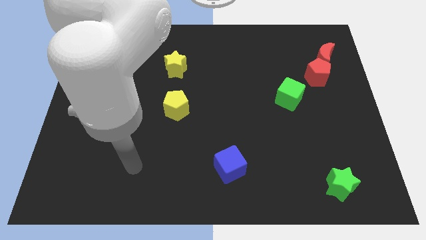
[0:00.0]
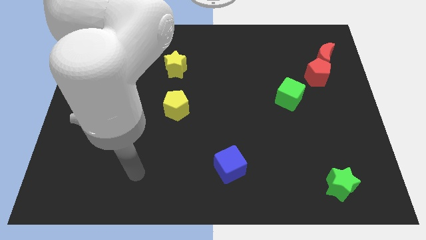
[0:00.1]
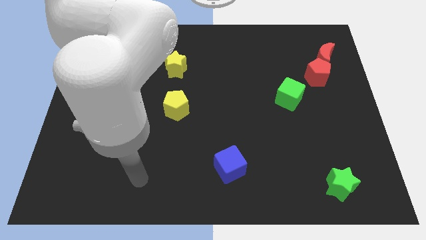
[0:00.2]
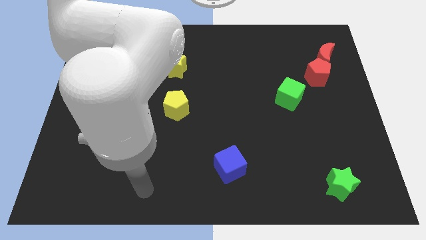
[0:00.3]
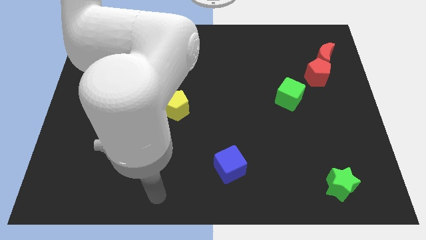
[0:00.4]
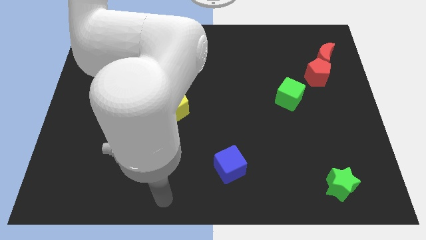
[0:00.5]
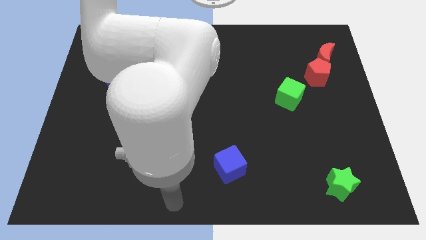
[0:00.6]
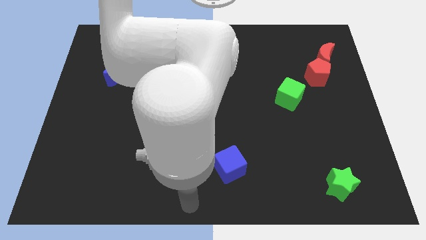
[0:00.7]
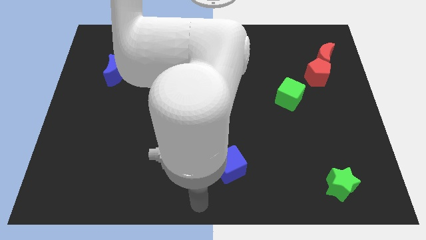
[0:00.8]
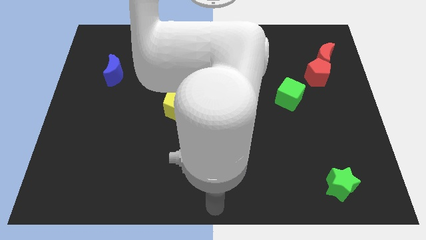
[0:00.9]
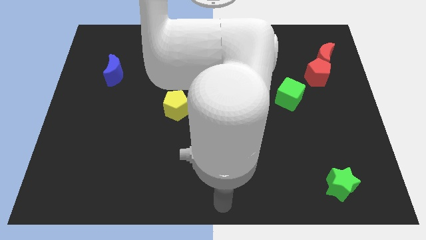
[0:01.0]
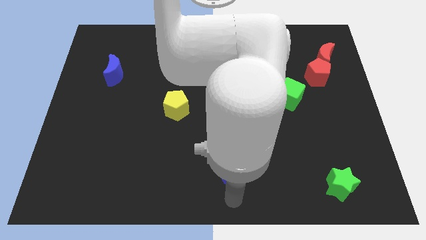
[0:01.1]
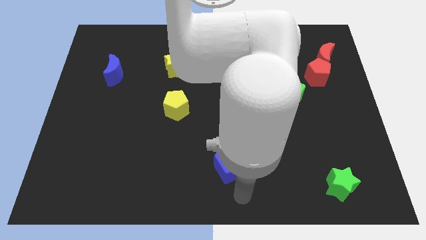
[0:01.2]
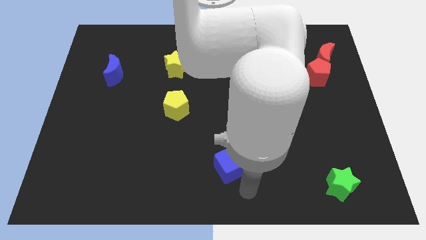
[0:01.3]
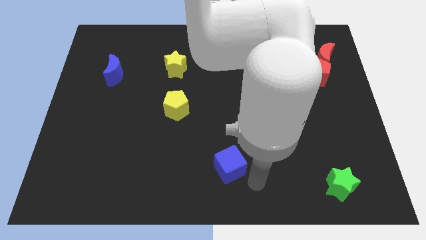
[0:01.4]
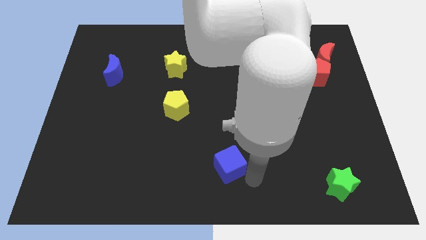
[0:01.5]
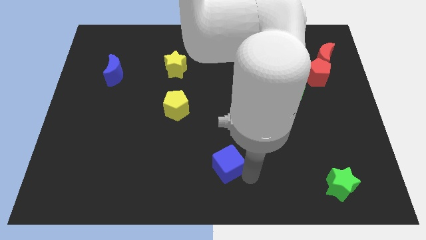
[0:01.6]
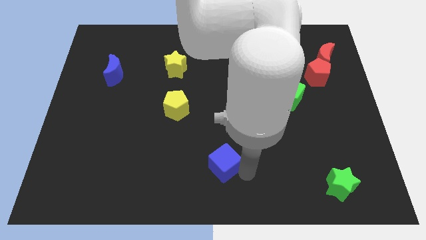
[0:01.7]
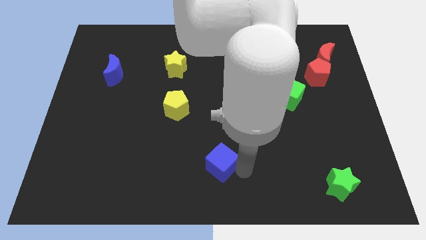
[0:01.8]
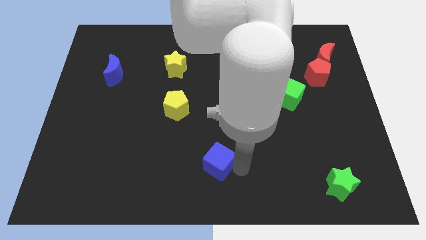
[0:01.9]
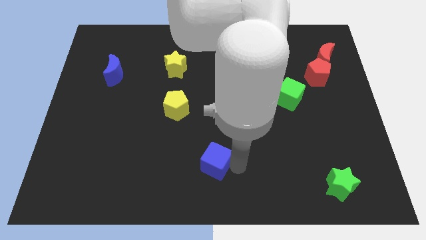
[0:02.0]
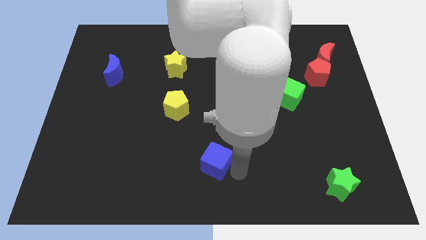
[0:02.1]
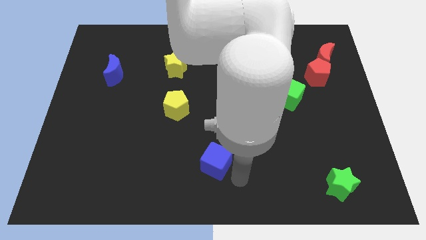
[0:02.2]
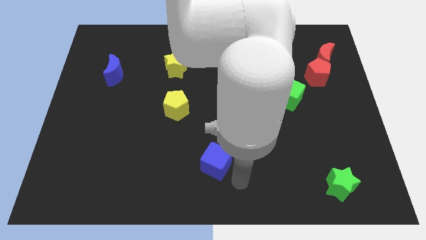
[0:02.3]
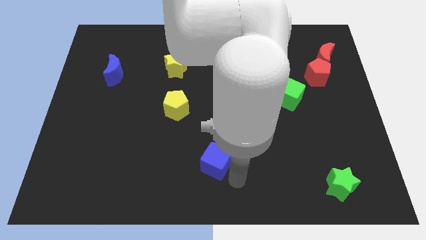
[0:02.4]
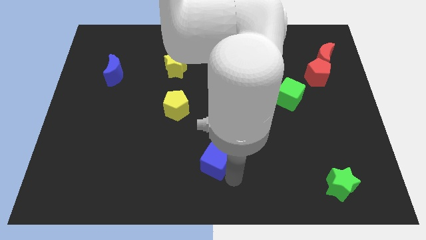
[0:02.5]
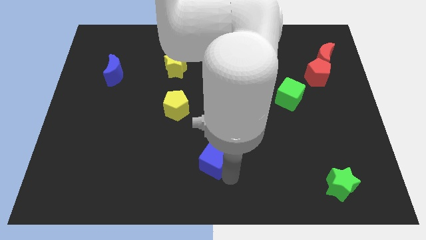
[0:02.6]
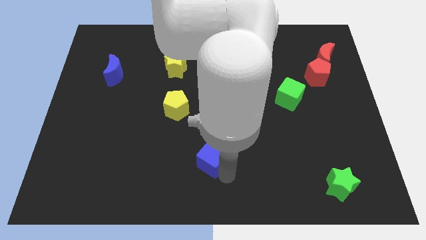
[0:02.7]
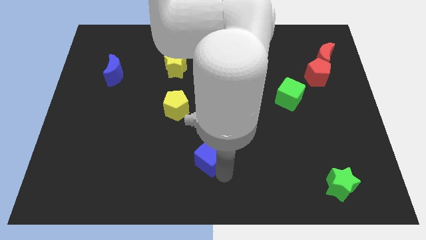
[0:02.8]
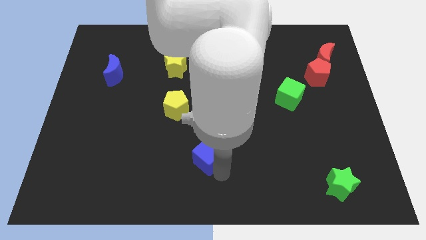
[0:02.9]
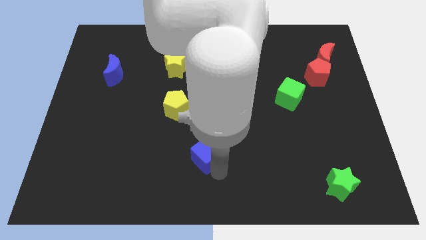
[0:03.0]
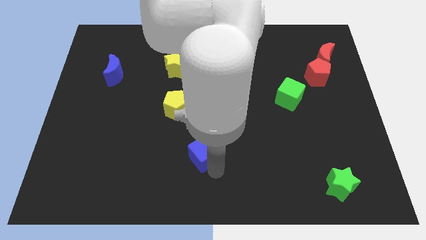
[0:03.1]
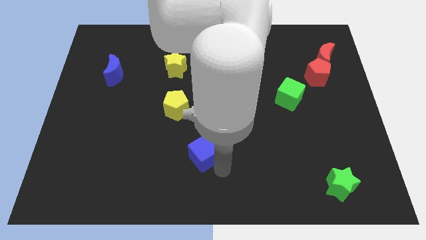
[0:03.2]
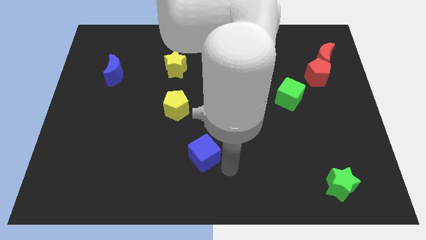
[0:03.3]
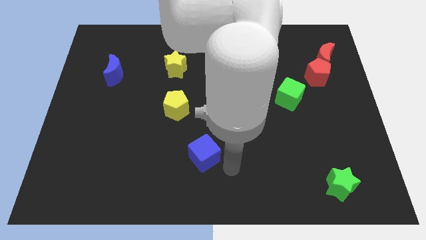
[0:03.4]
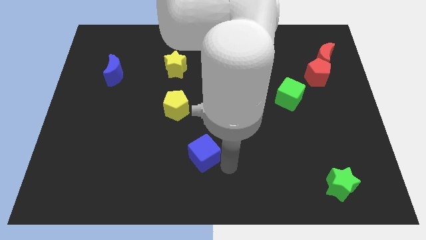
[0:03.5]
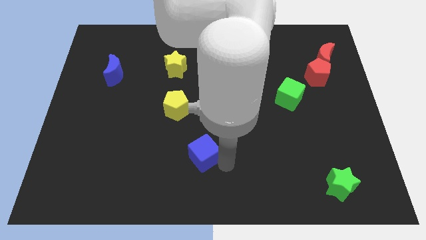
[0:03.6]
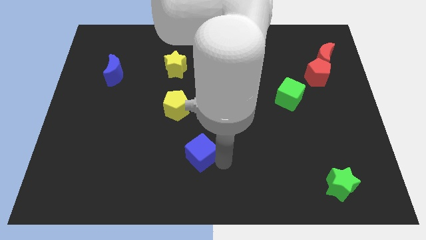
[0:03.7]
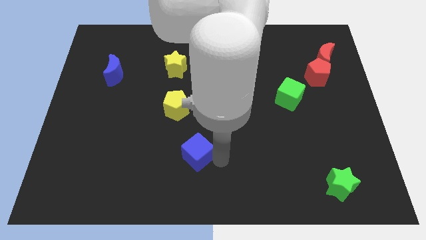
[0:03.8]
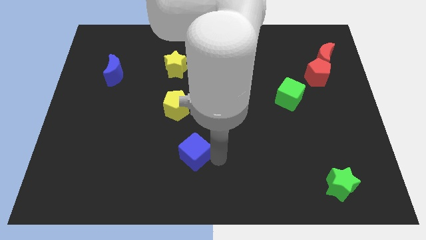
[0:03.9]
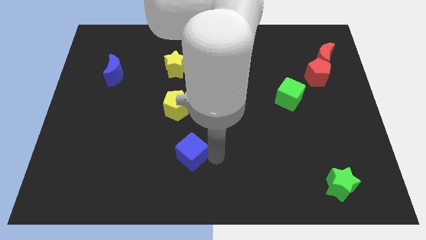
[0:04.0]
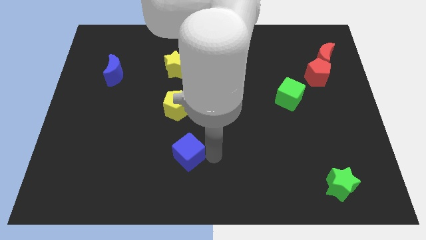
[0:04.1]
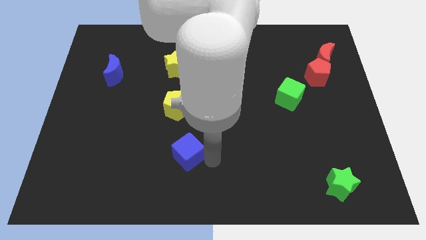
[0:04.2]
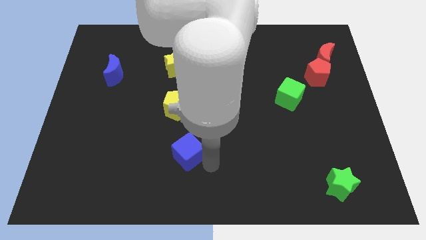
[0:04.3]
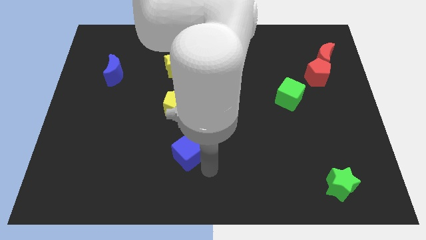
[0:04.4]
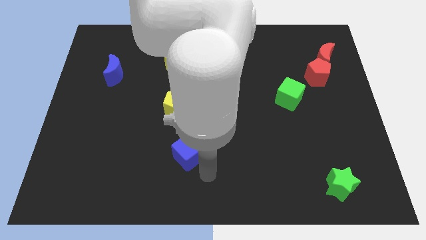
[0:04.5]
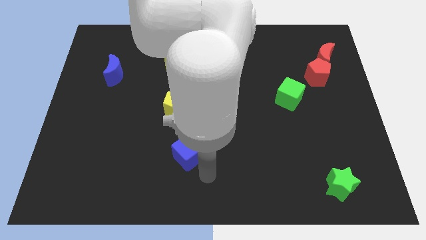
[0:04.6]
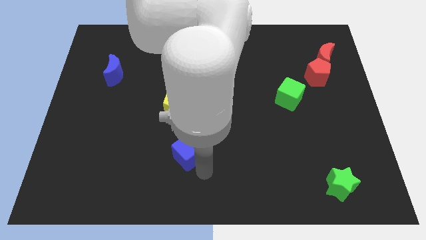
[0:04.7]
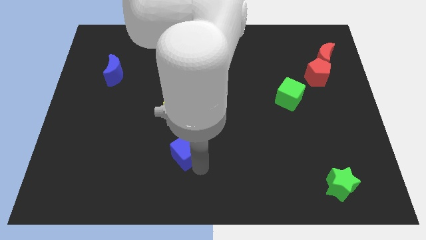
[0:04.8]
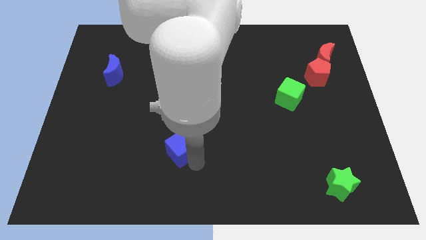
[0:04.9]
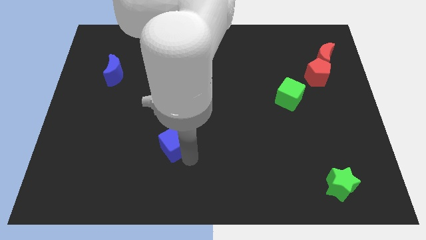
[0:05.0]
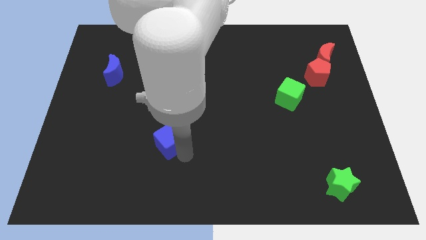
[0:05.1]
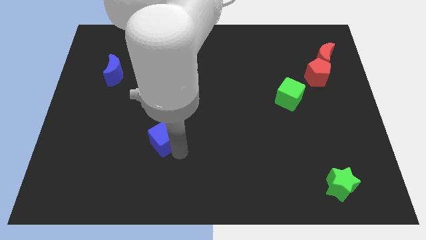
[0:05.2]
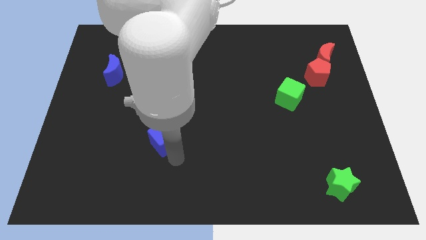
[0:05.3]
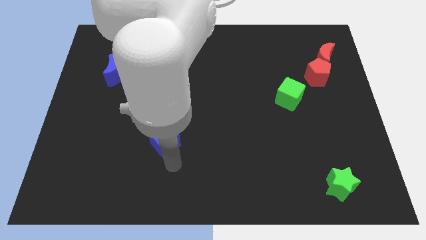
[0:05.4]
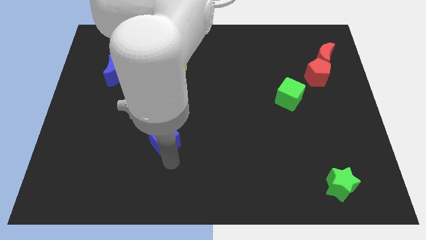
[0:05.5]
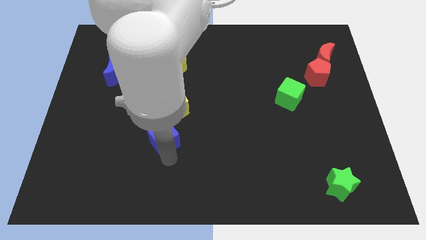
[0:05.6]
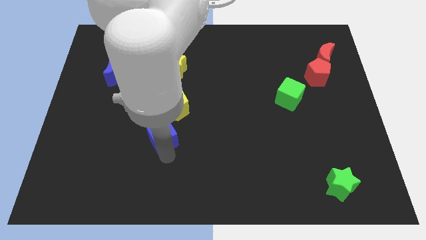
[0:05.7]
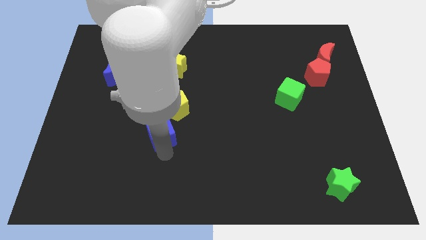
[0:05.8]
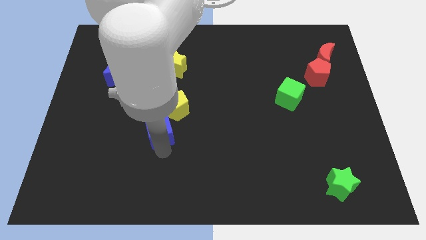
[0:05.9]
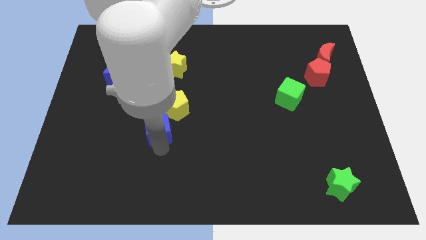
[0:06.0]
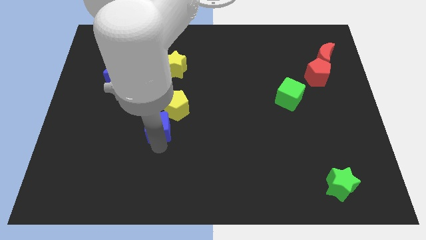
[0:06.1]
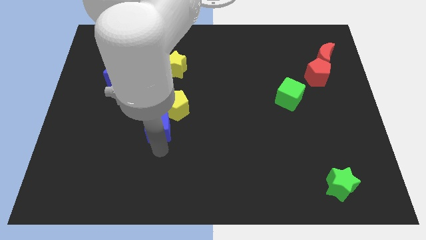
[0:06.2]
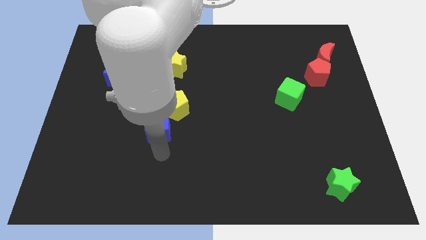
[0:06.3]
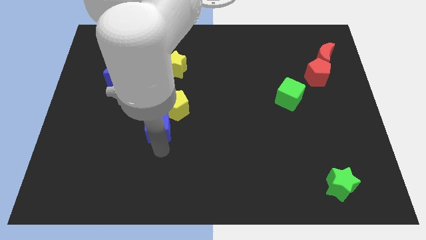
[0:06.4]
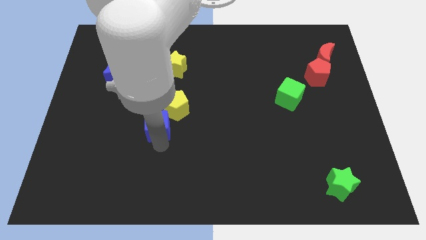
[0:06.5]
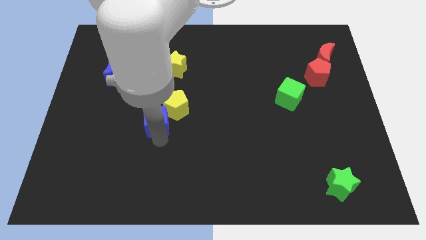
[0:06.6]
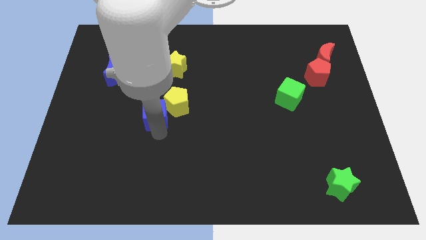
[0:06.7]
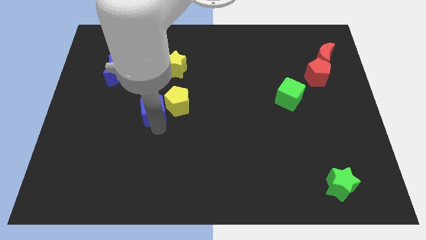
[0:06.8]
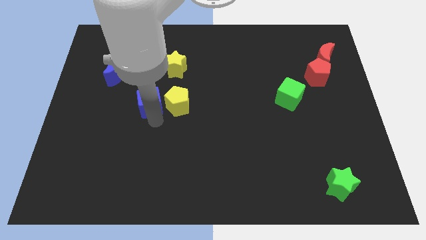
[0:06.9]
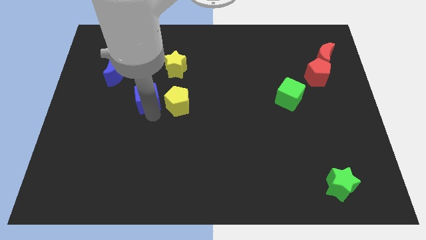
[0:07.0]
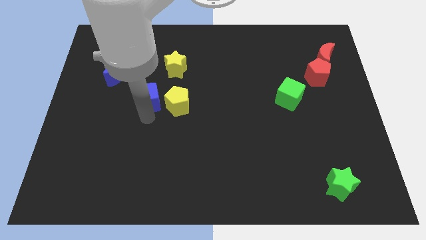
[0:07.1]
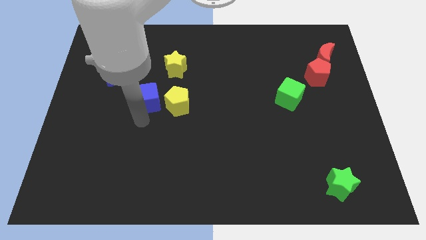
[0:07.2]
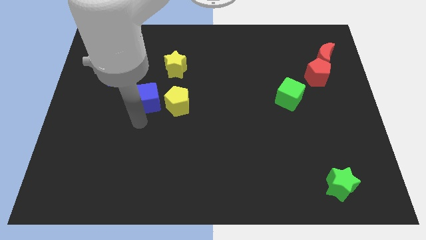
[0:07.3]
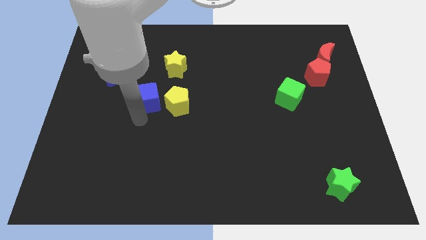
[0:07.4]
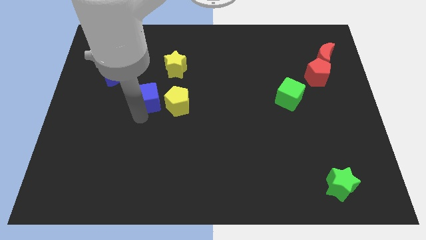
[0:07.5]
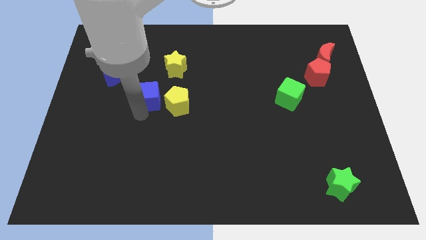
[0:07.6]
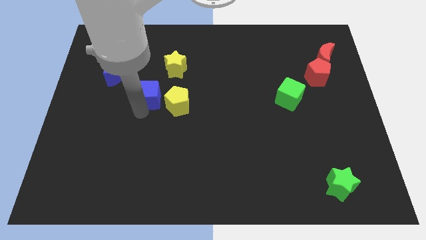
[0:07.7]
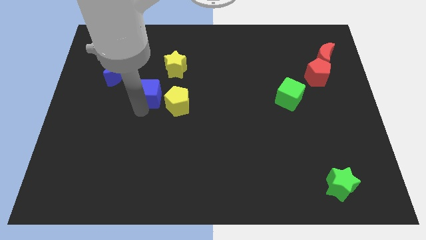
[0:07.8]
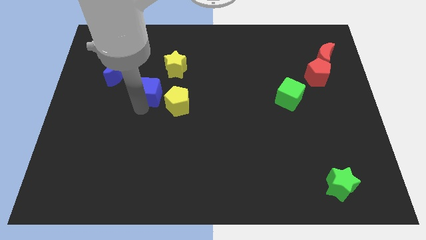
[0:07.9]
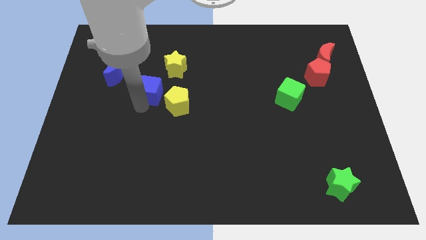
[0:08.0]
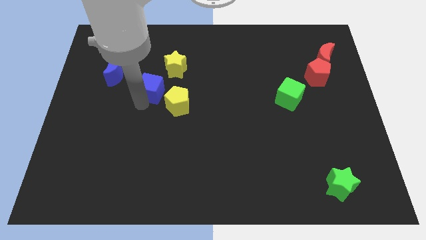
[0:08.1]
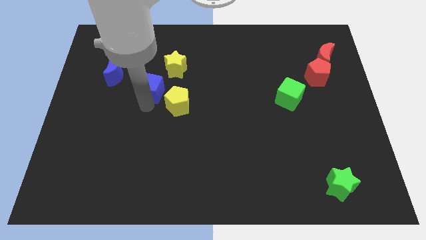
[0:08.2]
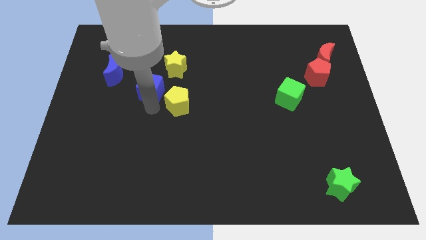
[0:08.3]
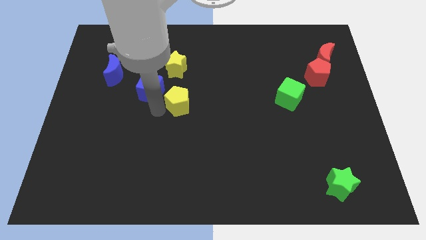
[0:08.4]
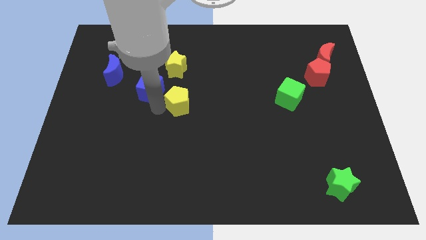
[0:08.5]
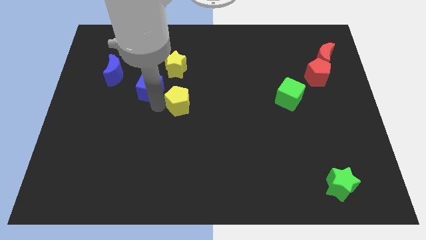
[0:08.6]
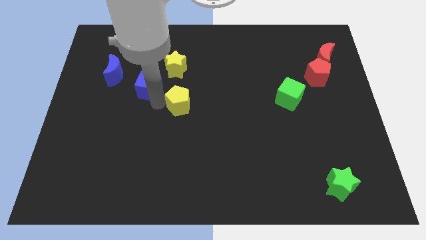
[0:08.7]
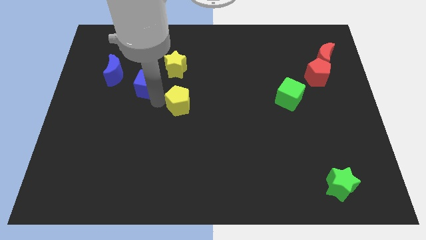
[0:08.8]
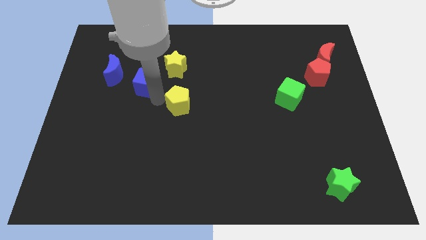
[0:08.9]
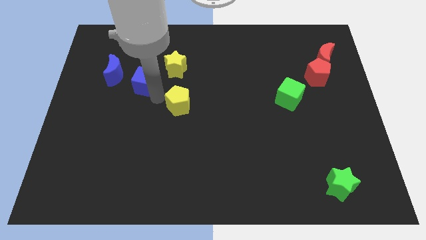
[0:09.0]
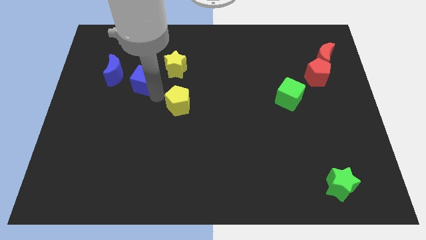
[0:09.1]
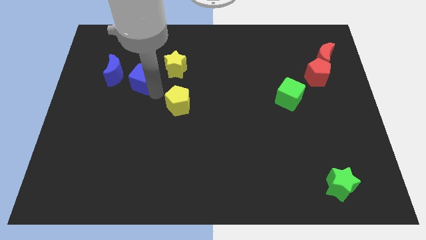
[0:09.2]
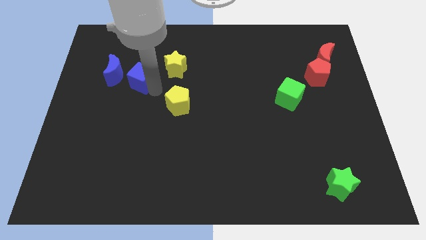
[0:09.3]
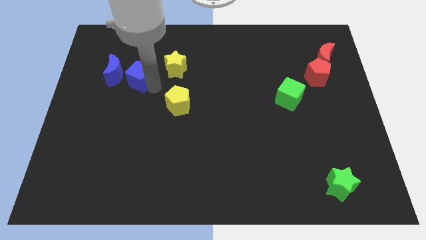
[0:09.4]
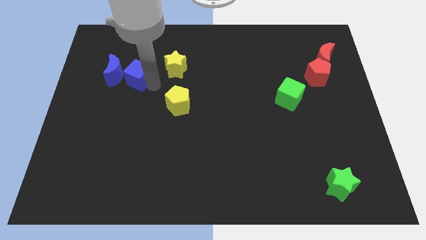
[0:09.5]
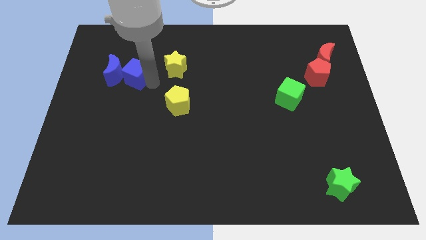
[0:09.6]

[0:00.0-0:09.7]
move the blue cube to the top right of the blue moon
